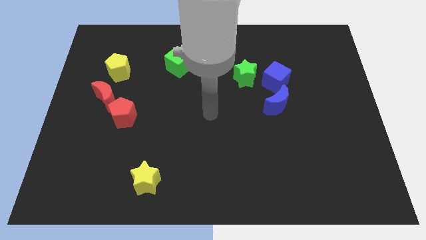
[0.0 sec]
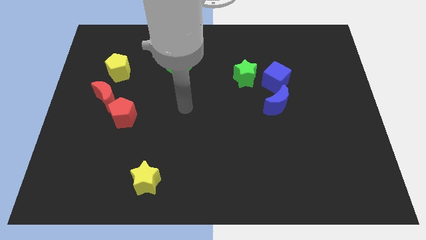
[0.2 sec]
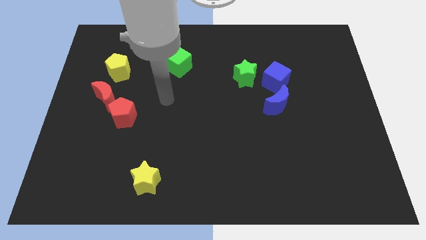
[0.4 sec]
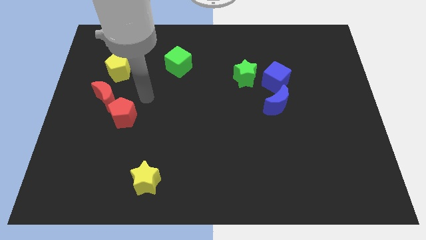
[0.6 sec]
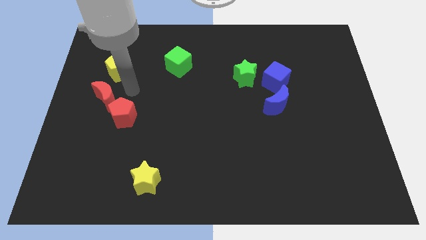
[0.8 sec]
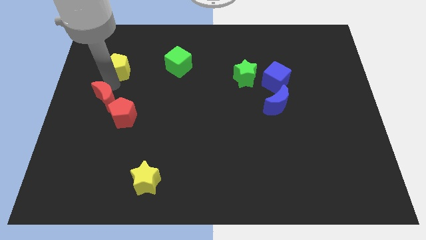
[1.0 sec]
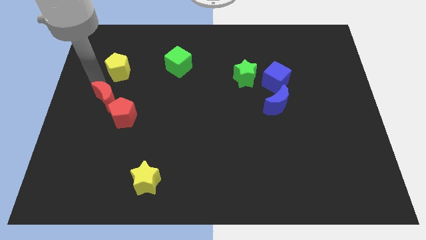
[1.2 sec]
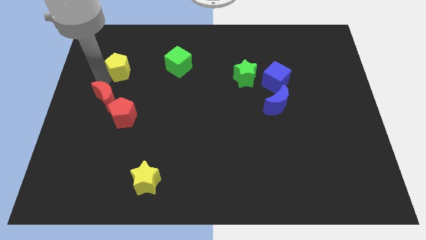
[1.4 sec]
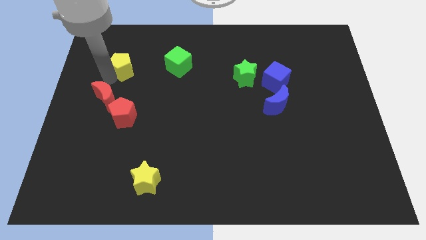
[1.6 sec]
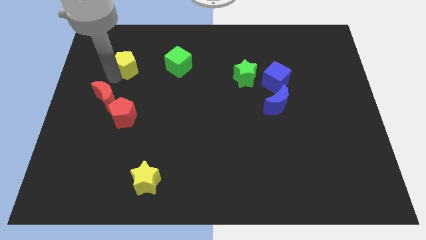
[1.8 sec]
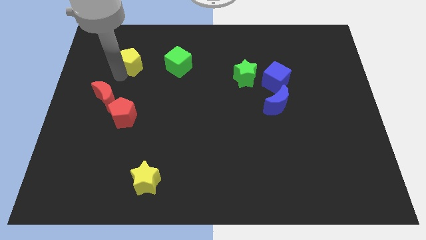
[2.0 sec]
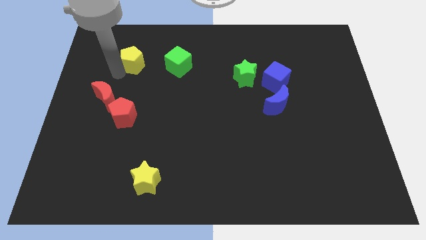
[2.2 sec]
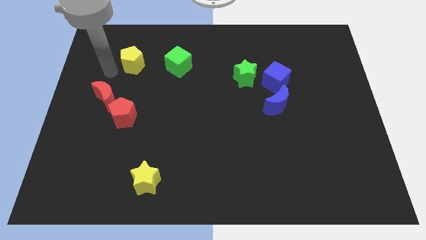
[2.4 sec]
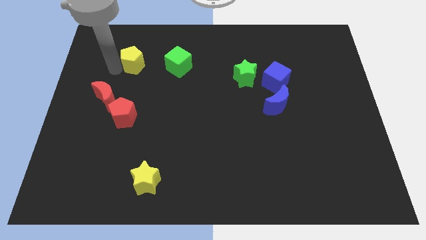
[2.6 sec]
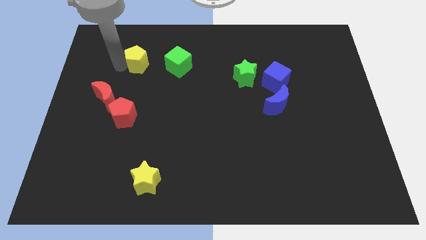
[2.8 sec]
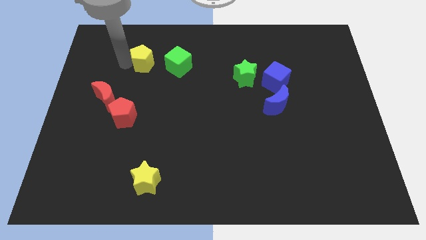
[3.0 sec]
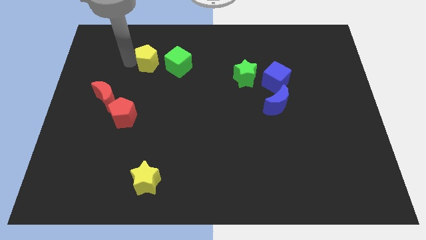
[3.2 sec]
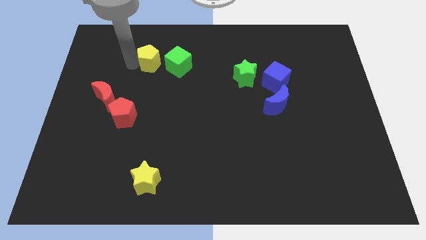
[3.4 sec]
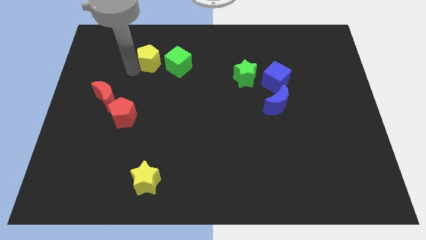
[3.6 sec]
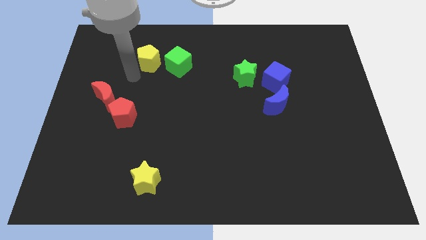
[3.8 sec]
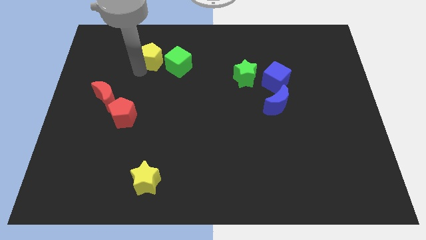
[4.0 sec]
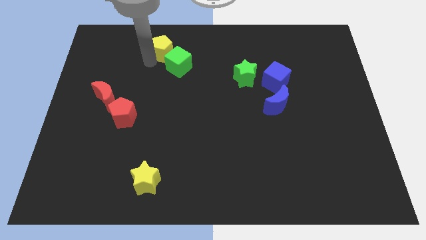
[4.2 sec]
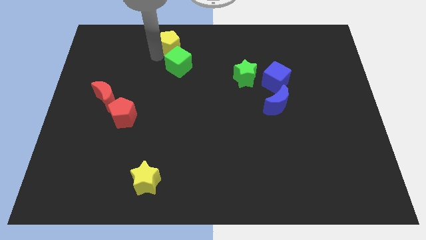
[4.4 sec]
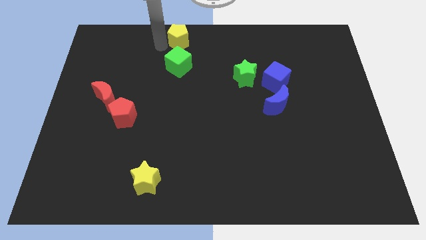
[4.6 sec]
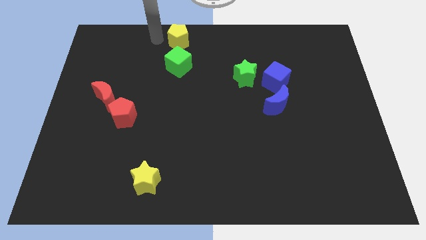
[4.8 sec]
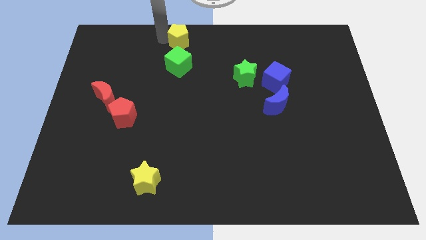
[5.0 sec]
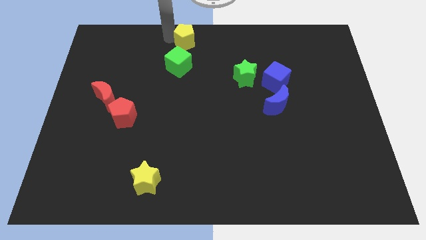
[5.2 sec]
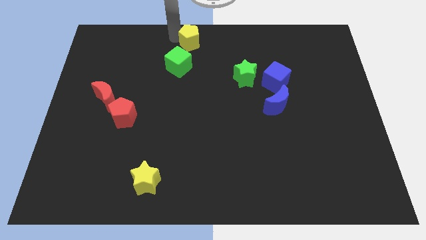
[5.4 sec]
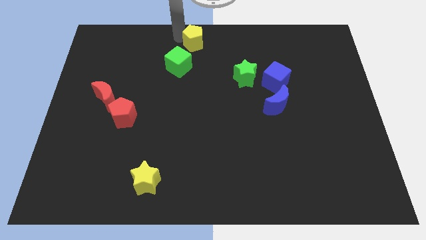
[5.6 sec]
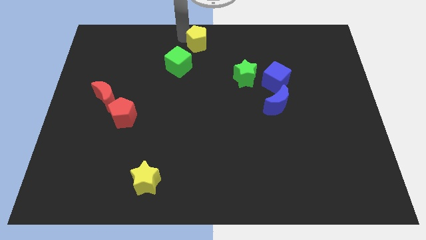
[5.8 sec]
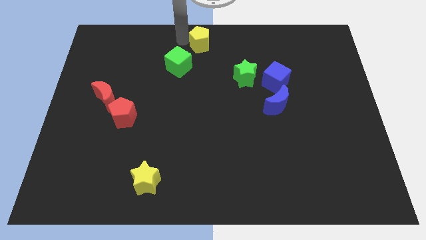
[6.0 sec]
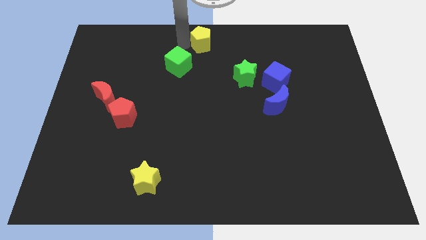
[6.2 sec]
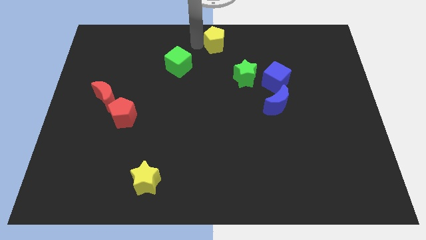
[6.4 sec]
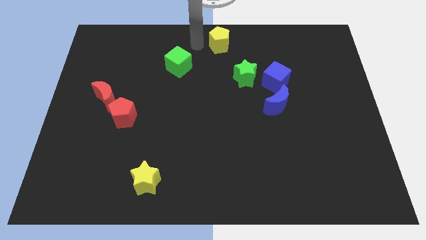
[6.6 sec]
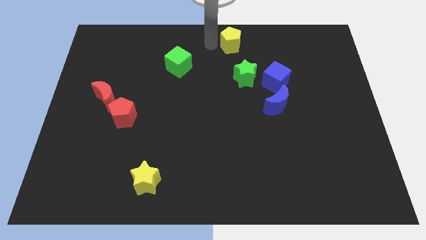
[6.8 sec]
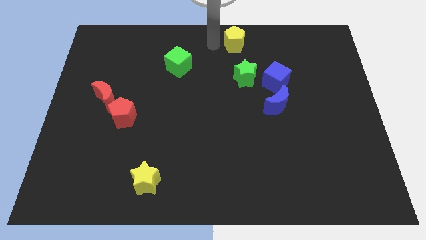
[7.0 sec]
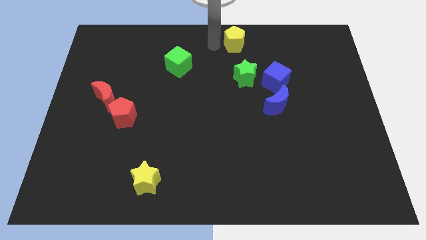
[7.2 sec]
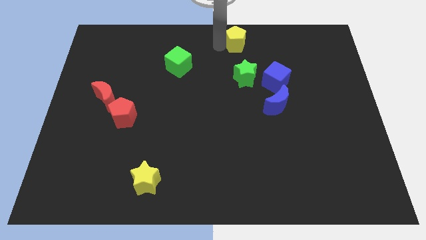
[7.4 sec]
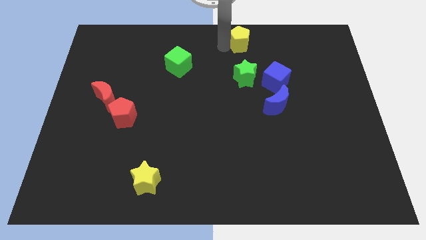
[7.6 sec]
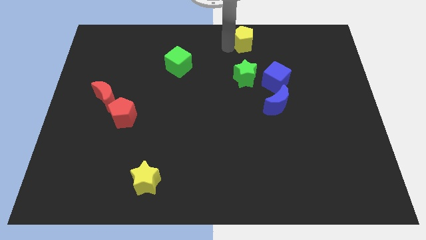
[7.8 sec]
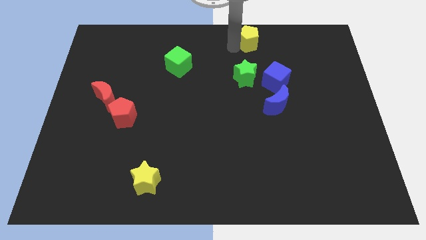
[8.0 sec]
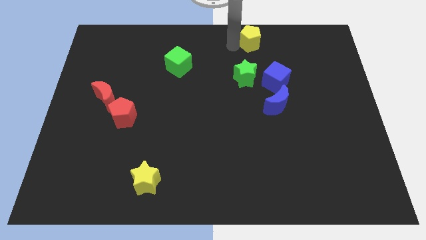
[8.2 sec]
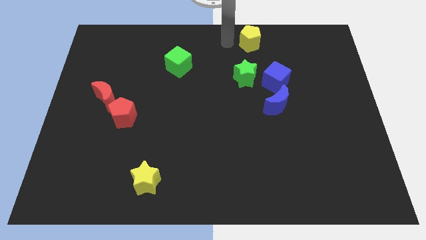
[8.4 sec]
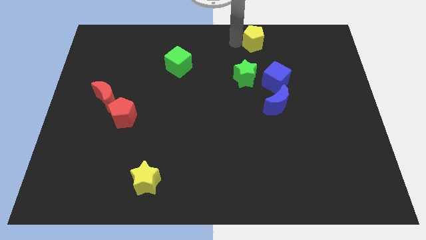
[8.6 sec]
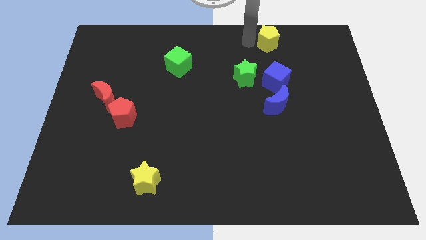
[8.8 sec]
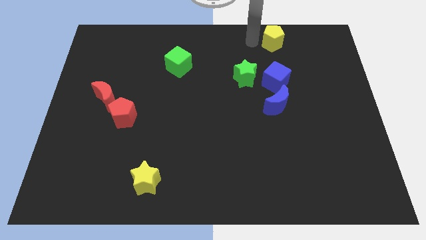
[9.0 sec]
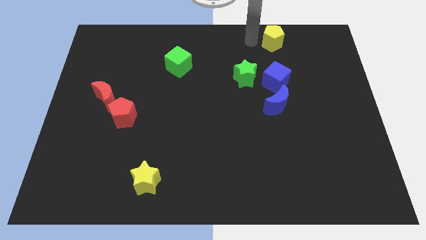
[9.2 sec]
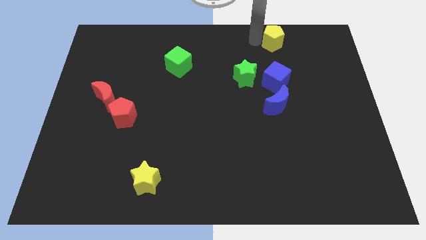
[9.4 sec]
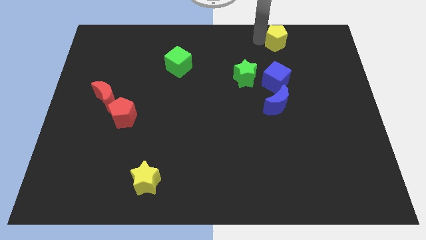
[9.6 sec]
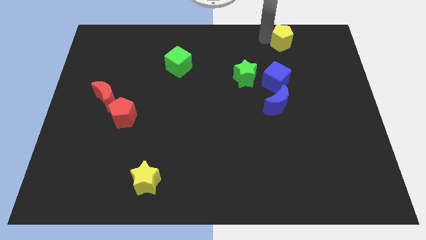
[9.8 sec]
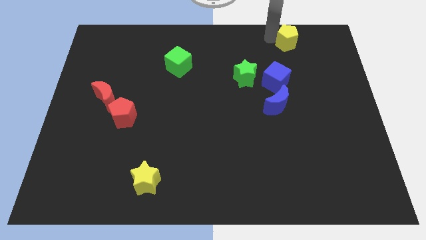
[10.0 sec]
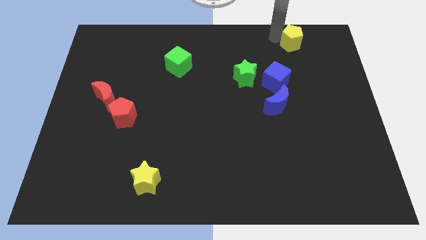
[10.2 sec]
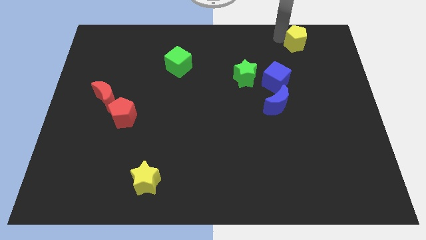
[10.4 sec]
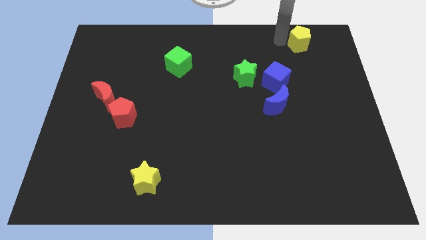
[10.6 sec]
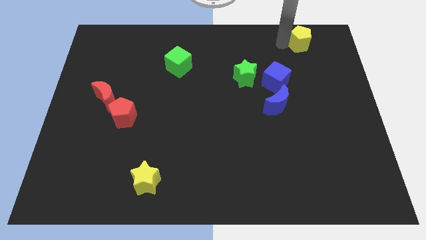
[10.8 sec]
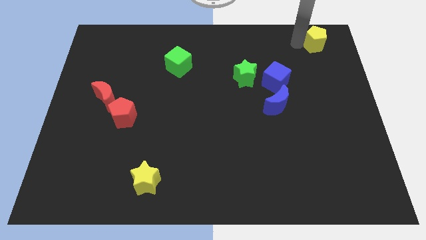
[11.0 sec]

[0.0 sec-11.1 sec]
move the yellow pentagon to the top right of the board

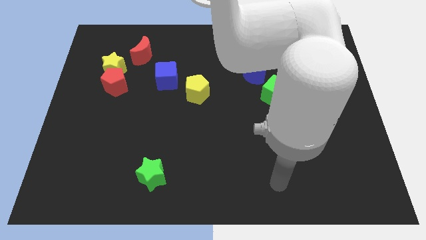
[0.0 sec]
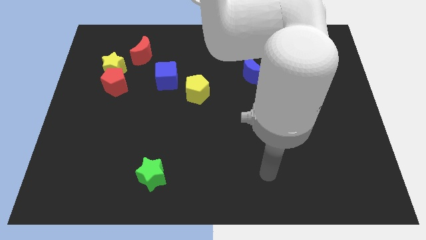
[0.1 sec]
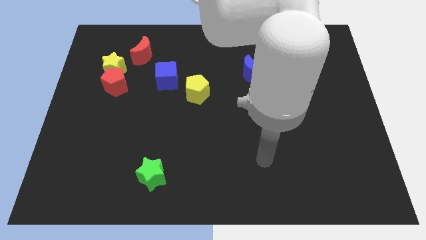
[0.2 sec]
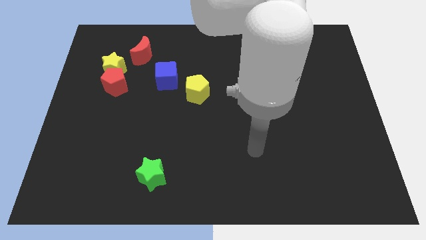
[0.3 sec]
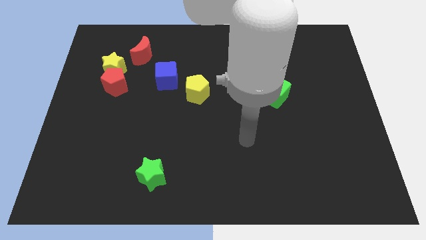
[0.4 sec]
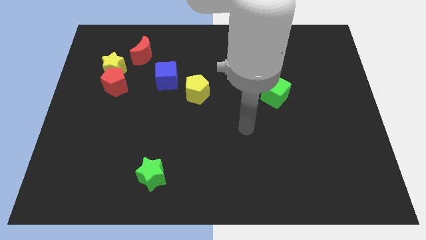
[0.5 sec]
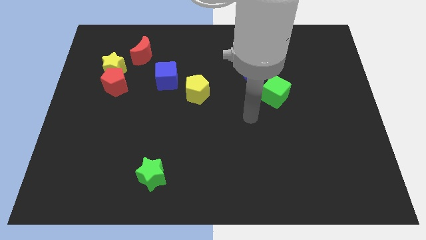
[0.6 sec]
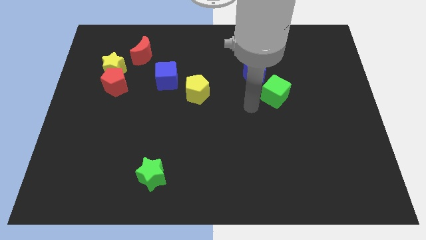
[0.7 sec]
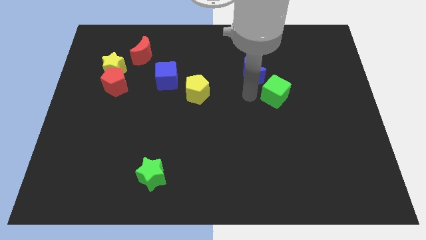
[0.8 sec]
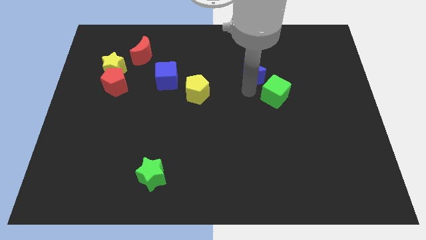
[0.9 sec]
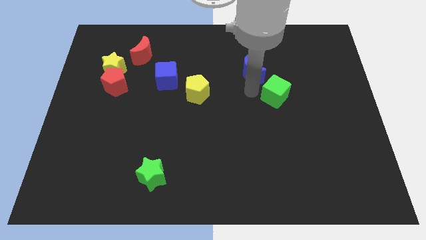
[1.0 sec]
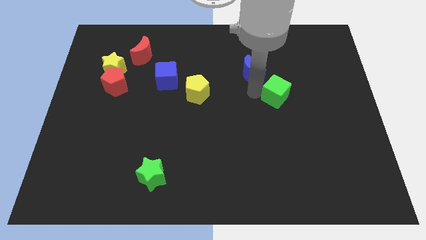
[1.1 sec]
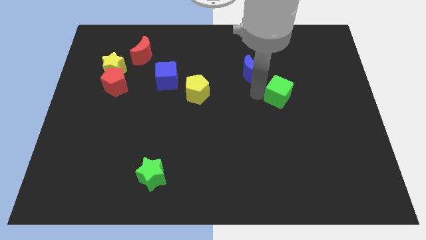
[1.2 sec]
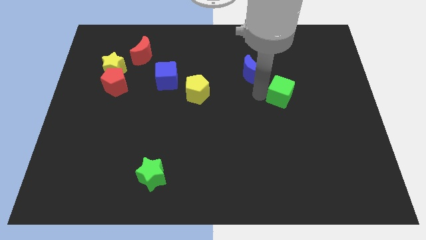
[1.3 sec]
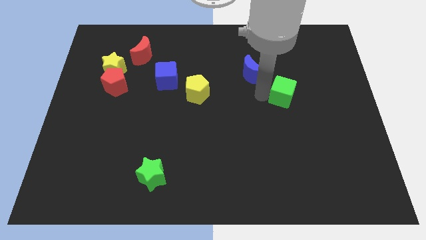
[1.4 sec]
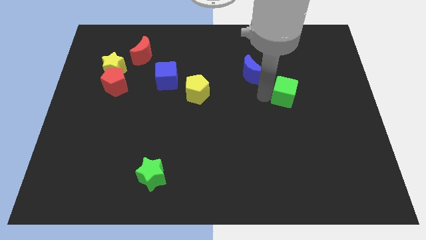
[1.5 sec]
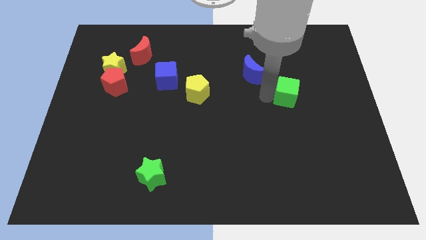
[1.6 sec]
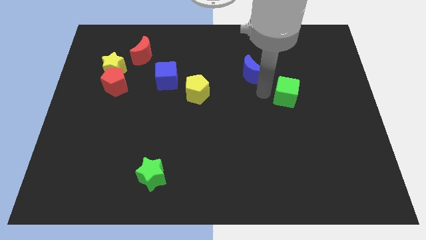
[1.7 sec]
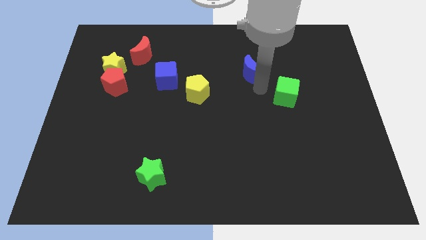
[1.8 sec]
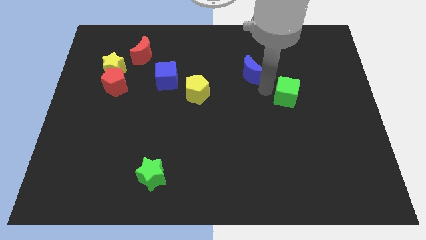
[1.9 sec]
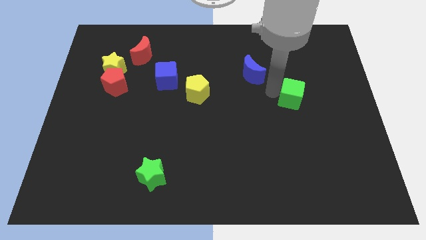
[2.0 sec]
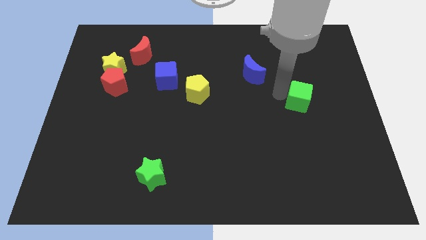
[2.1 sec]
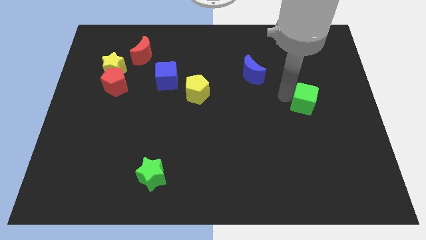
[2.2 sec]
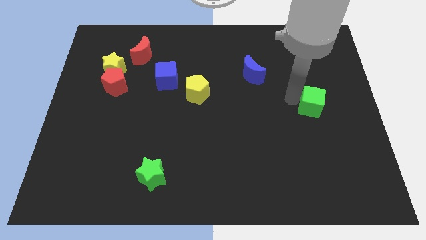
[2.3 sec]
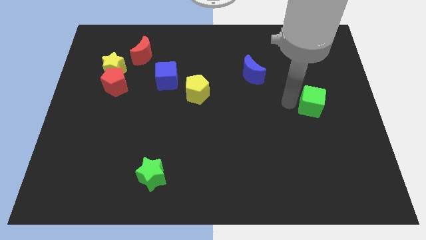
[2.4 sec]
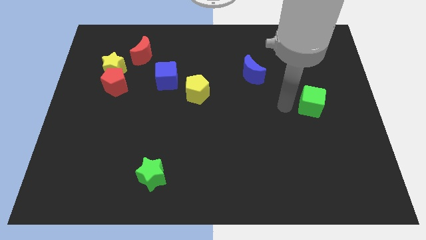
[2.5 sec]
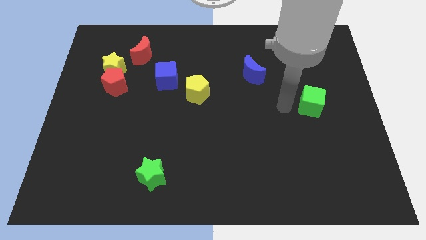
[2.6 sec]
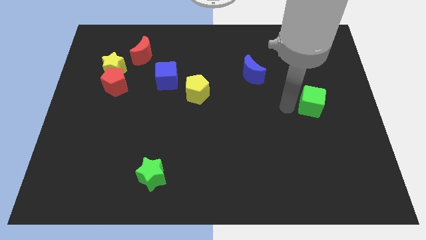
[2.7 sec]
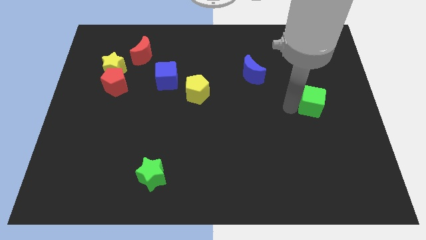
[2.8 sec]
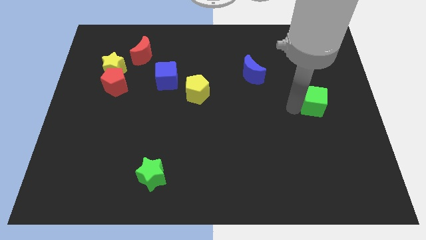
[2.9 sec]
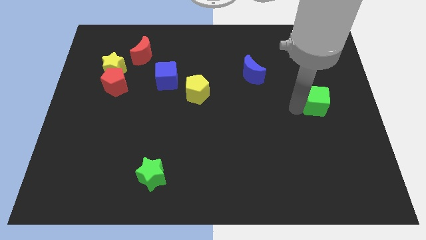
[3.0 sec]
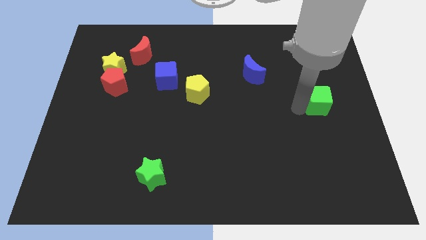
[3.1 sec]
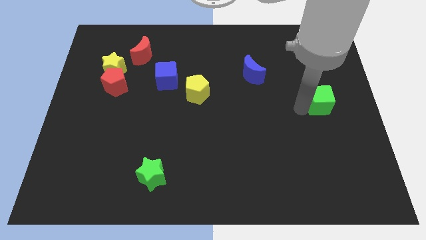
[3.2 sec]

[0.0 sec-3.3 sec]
push the green cube to the center right

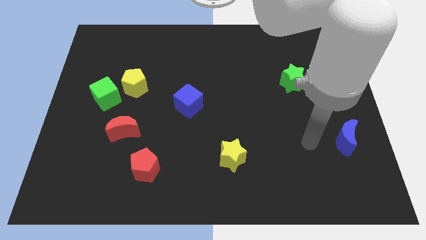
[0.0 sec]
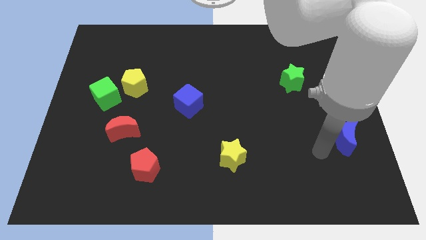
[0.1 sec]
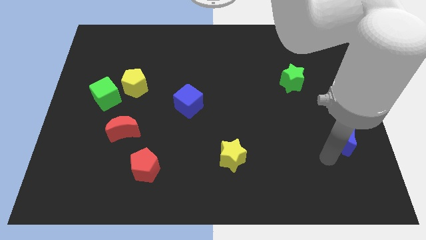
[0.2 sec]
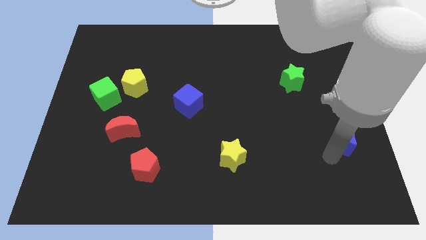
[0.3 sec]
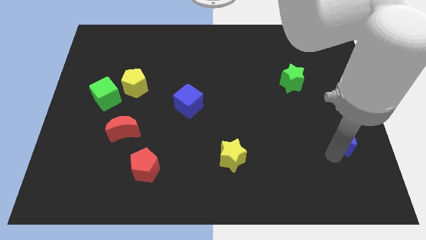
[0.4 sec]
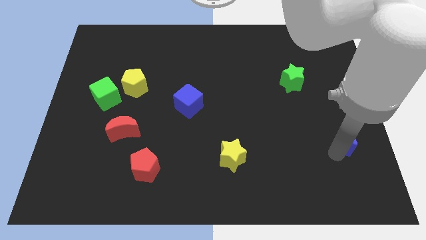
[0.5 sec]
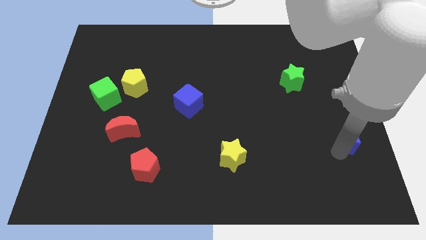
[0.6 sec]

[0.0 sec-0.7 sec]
push the blue moon to the right side of the board
